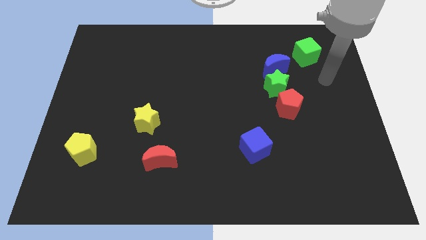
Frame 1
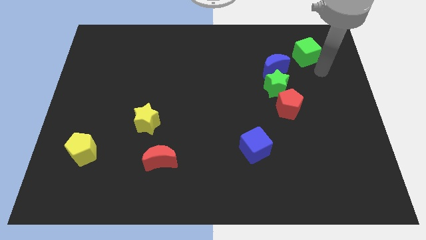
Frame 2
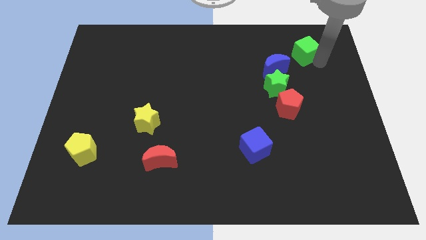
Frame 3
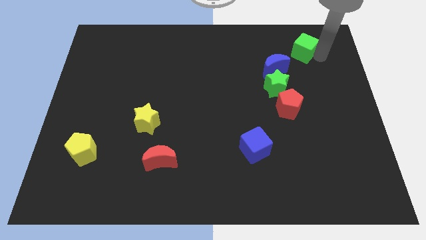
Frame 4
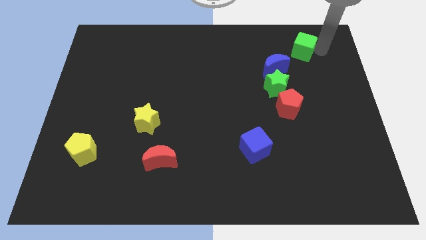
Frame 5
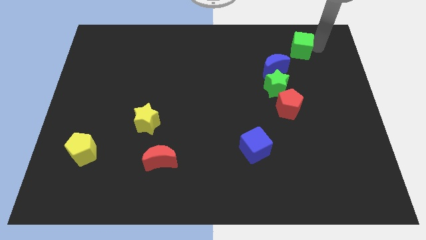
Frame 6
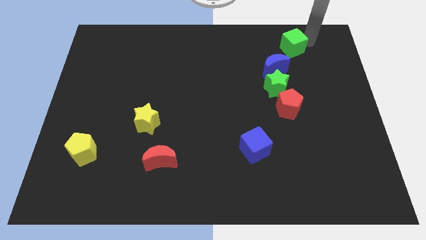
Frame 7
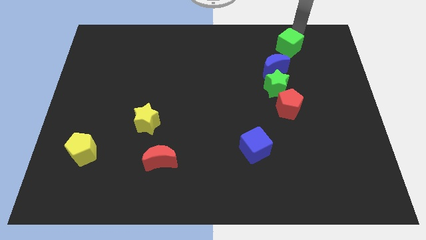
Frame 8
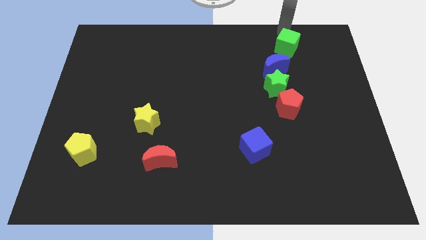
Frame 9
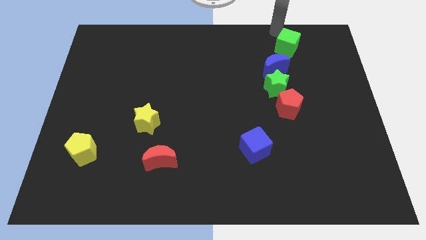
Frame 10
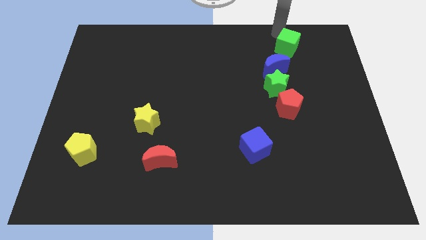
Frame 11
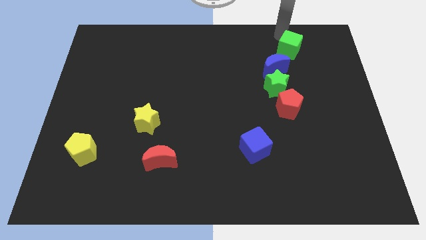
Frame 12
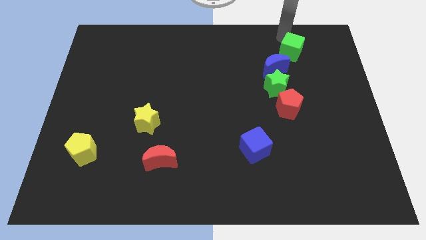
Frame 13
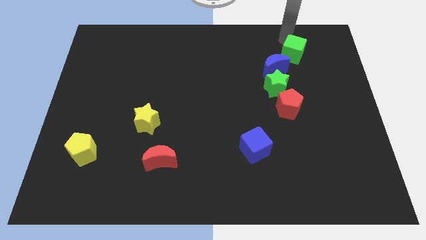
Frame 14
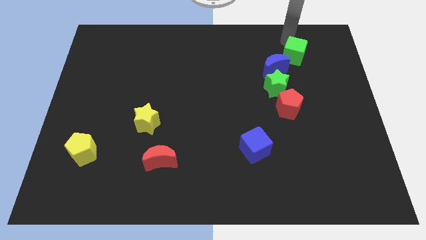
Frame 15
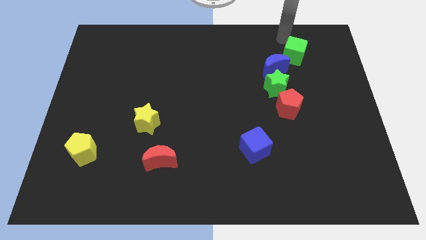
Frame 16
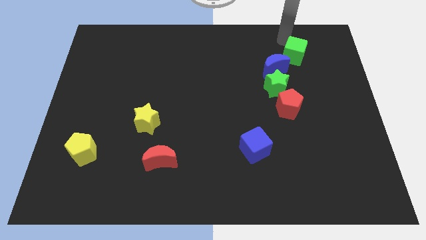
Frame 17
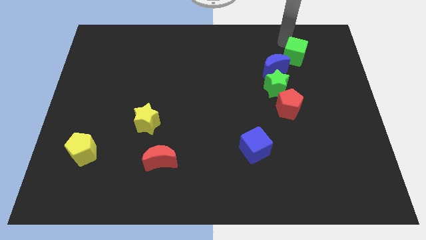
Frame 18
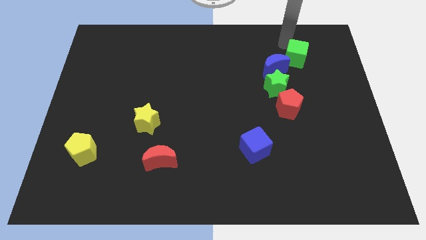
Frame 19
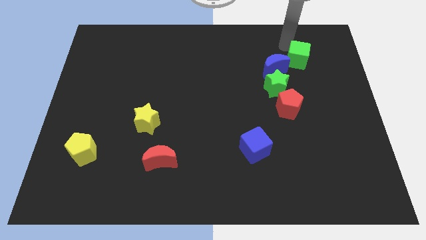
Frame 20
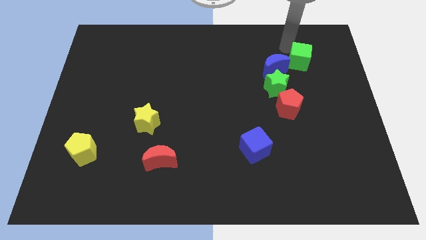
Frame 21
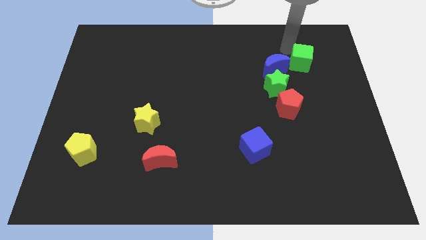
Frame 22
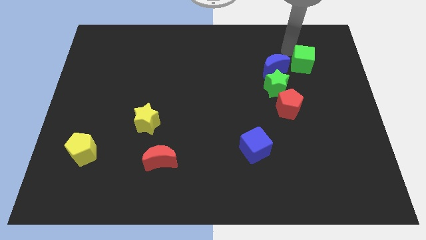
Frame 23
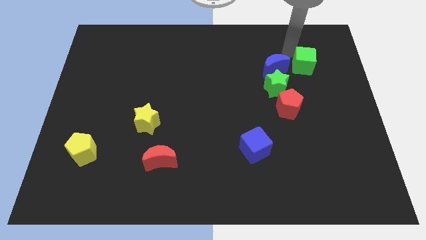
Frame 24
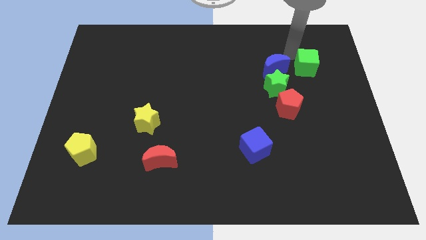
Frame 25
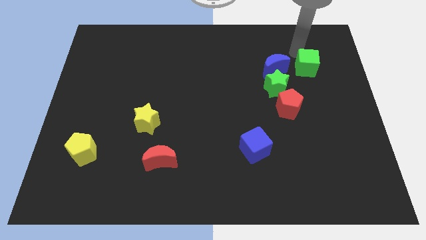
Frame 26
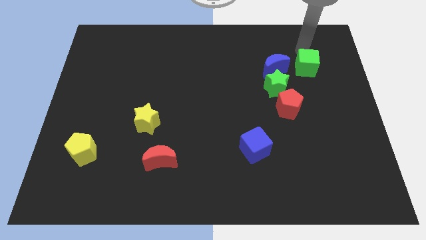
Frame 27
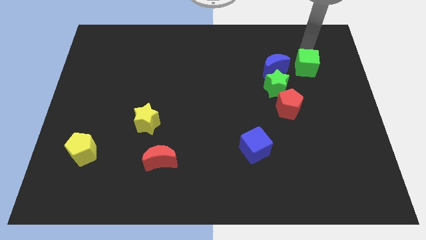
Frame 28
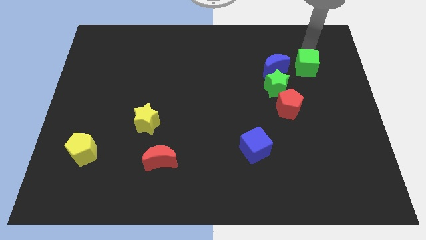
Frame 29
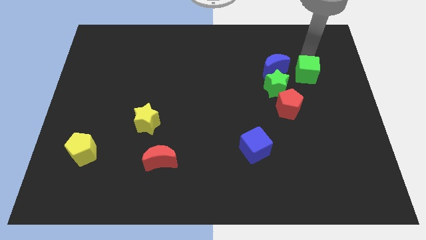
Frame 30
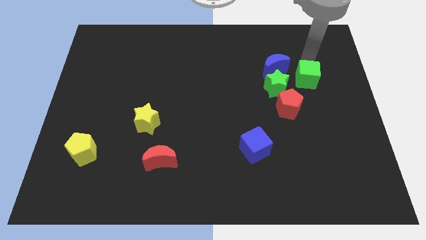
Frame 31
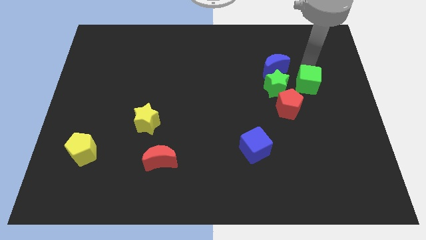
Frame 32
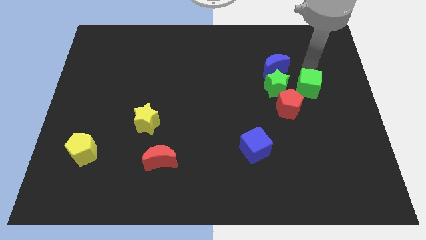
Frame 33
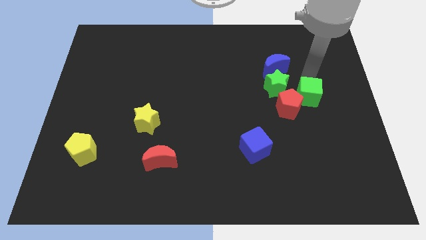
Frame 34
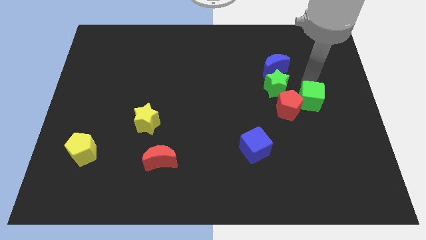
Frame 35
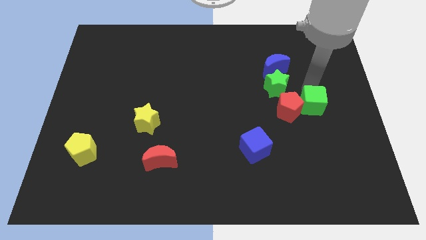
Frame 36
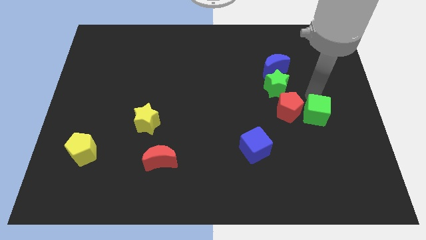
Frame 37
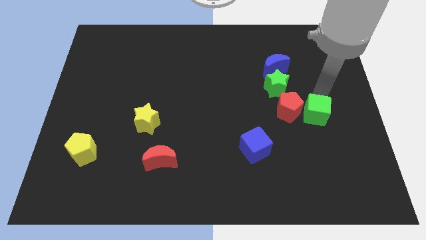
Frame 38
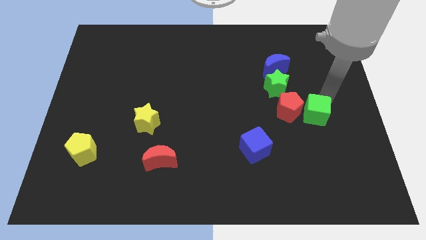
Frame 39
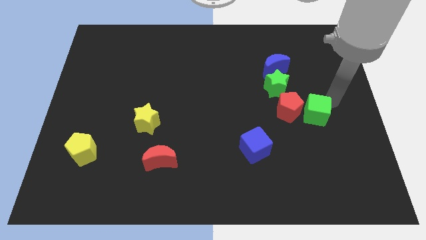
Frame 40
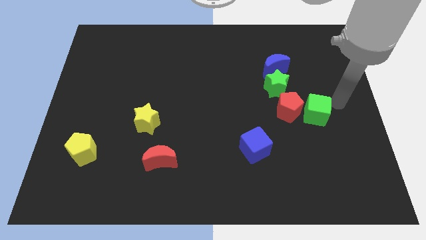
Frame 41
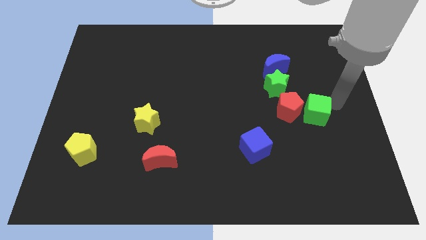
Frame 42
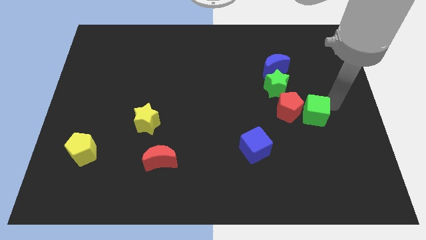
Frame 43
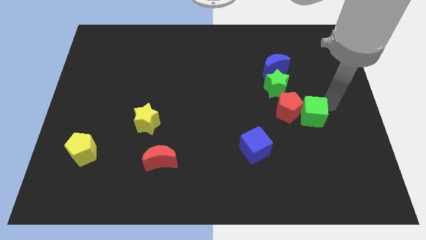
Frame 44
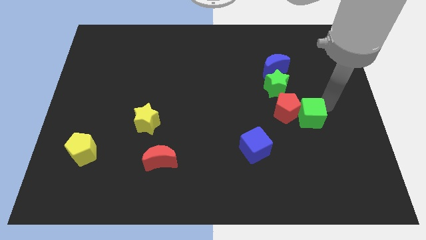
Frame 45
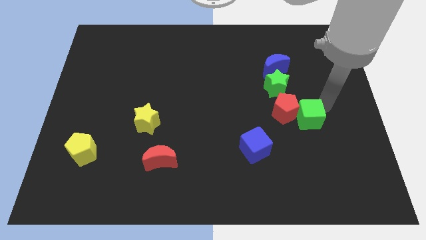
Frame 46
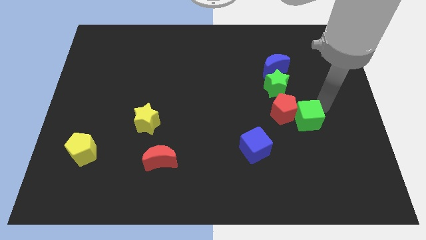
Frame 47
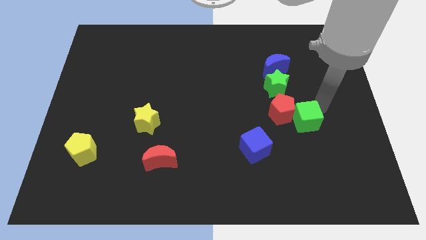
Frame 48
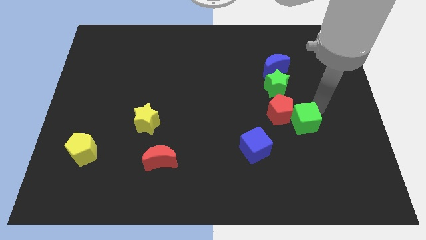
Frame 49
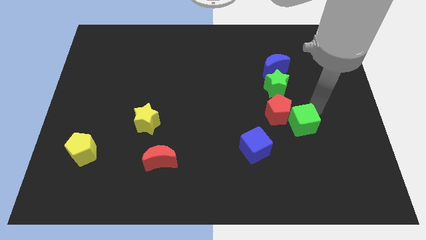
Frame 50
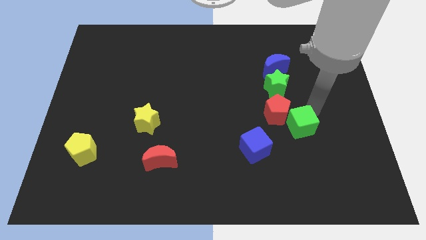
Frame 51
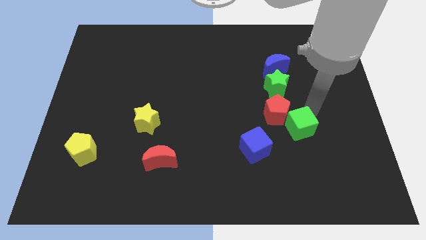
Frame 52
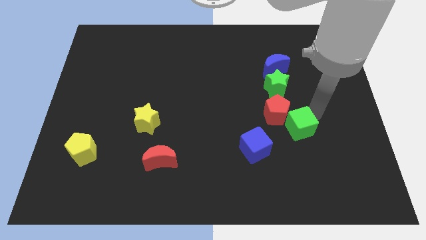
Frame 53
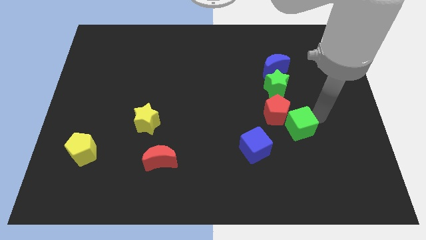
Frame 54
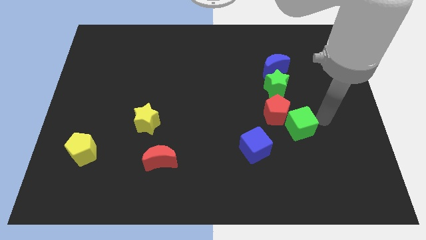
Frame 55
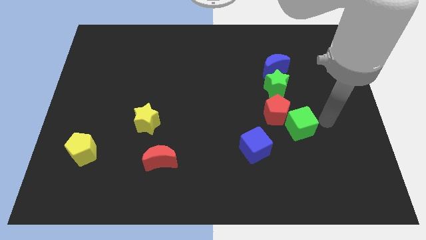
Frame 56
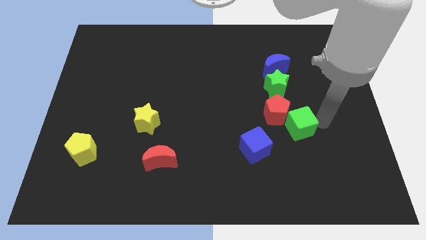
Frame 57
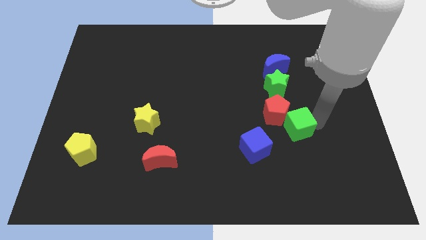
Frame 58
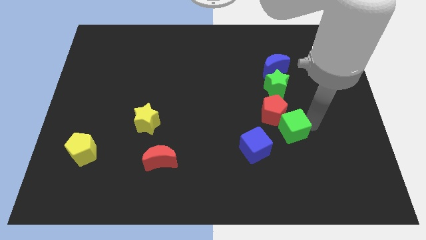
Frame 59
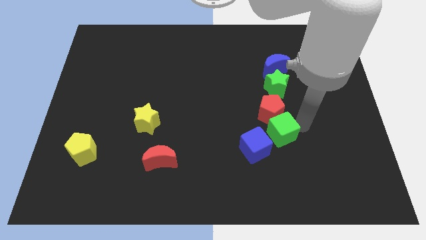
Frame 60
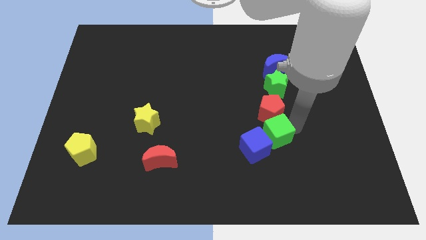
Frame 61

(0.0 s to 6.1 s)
push the green cube next to the blue cube

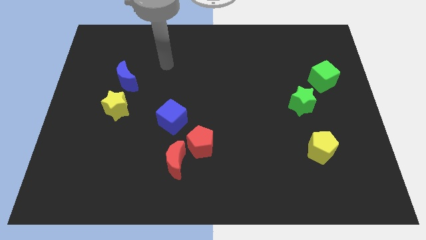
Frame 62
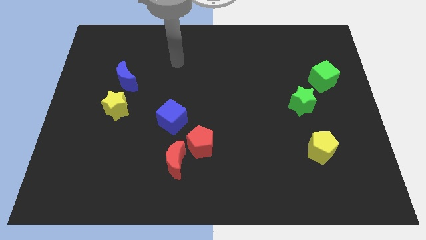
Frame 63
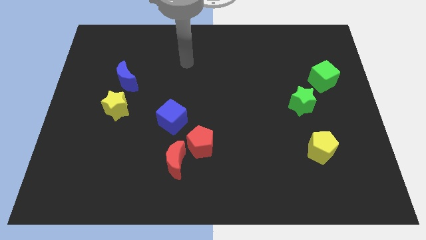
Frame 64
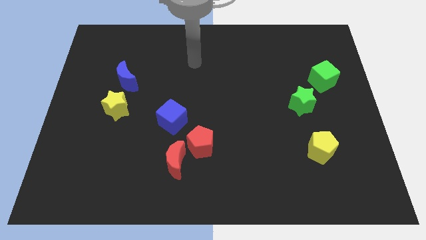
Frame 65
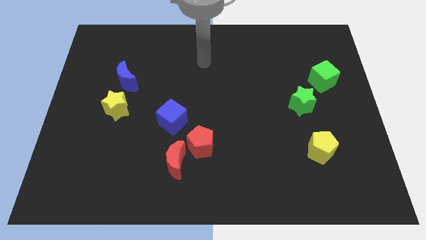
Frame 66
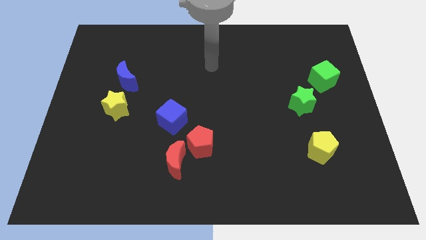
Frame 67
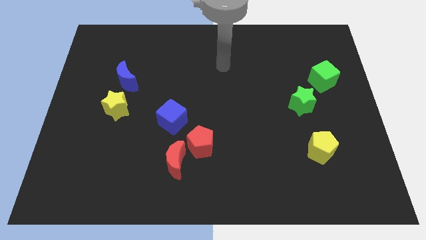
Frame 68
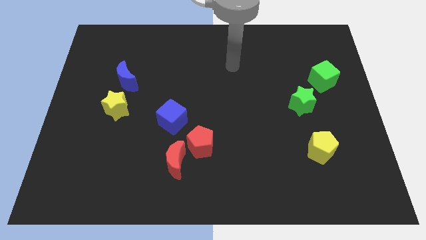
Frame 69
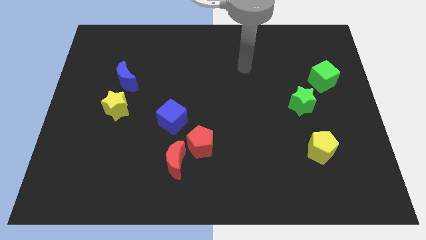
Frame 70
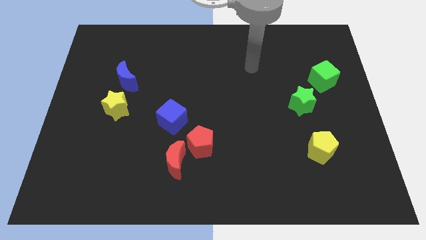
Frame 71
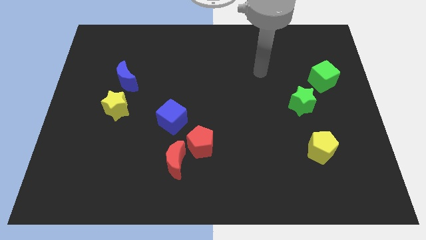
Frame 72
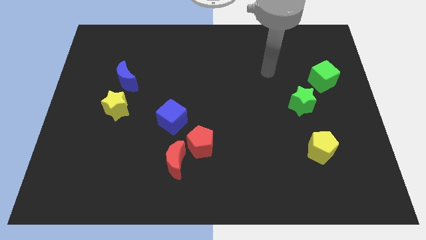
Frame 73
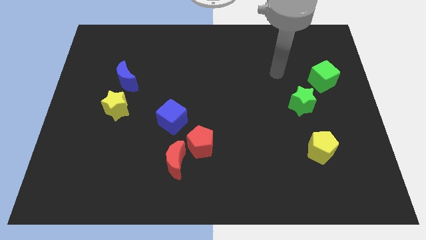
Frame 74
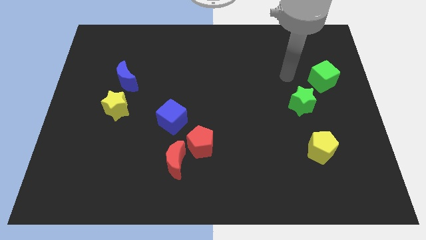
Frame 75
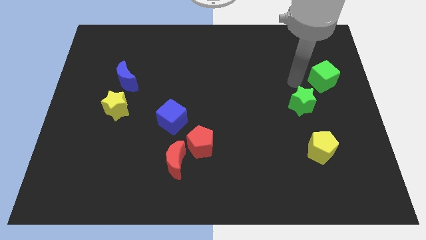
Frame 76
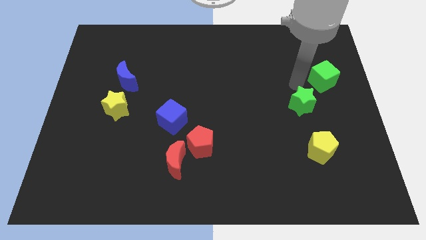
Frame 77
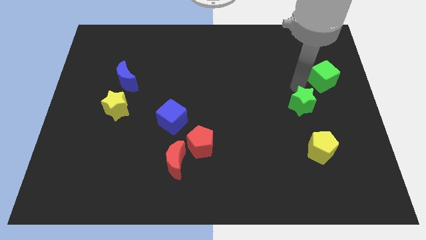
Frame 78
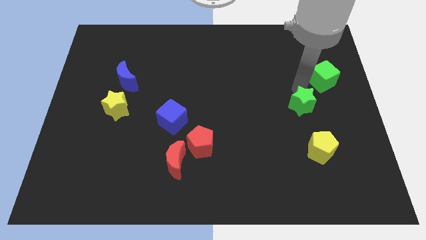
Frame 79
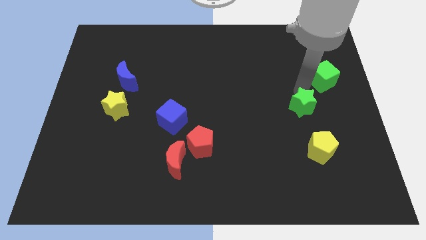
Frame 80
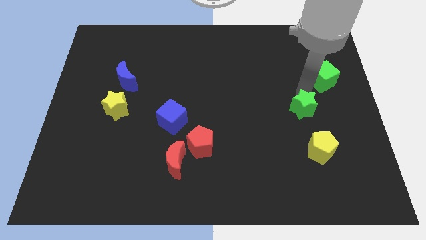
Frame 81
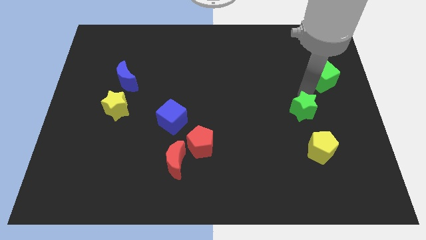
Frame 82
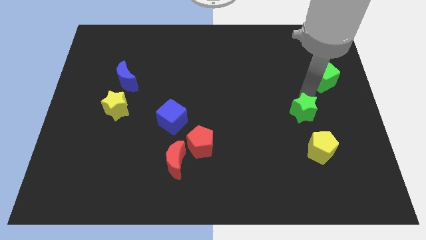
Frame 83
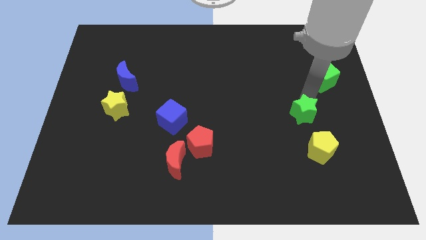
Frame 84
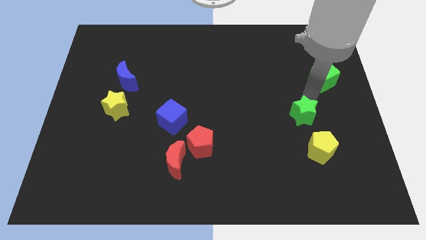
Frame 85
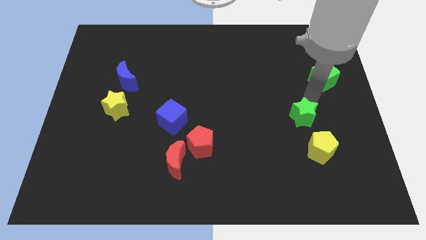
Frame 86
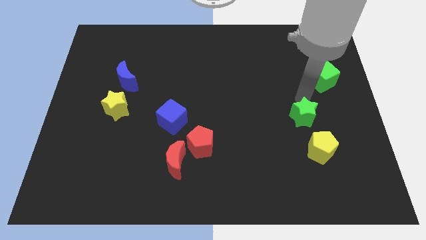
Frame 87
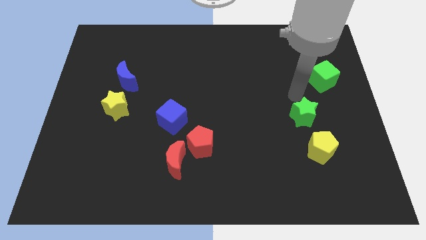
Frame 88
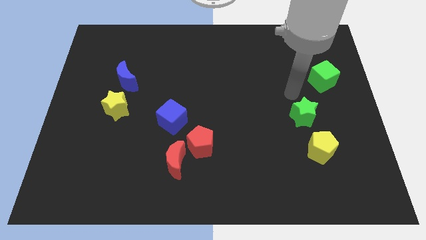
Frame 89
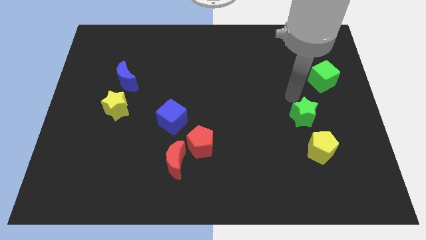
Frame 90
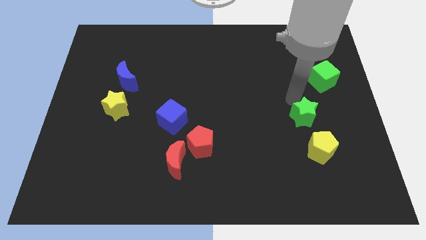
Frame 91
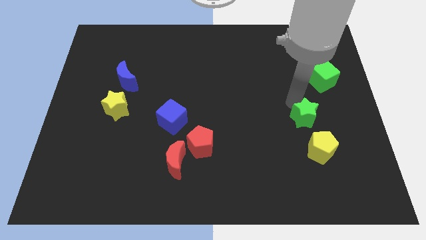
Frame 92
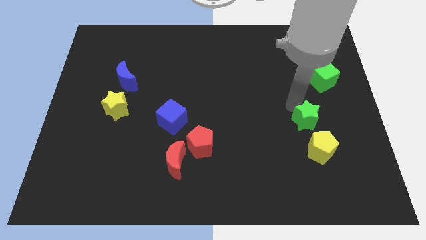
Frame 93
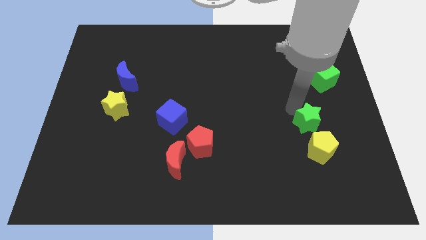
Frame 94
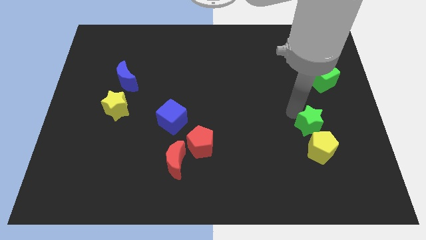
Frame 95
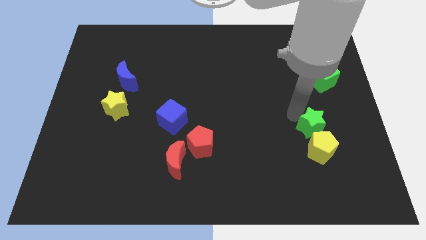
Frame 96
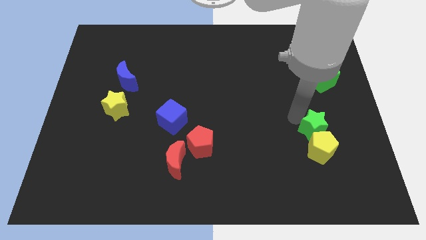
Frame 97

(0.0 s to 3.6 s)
move the green star towards the yellow pentagon
